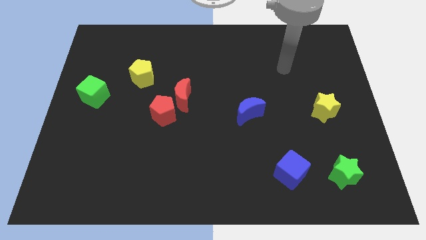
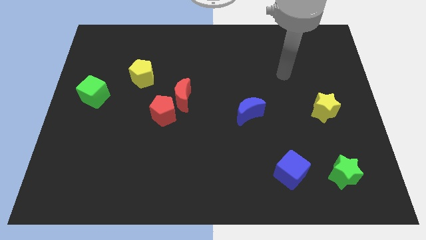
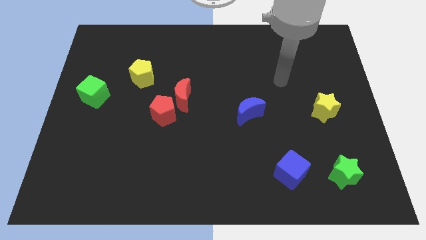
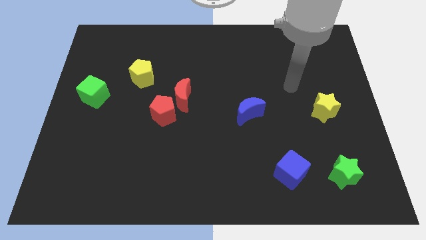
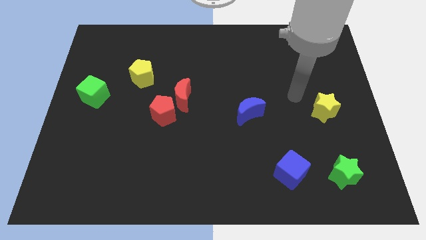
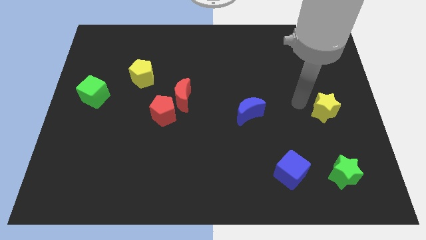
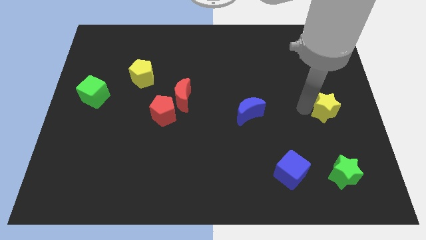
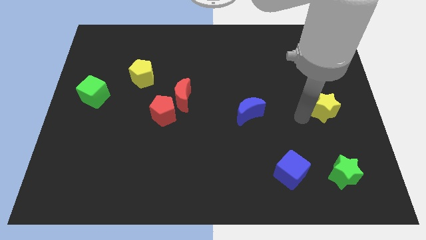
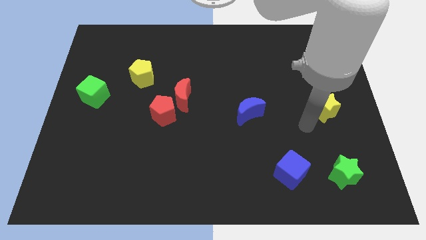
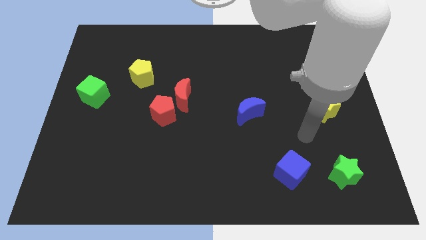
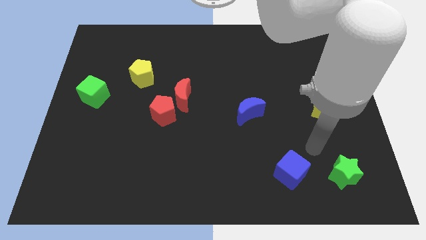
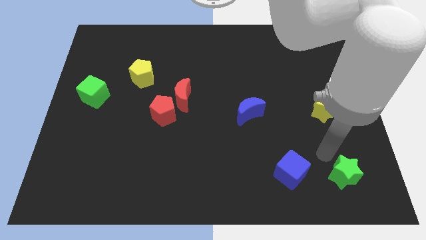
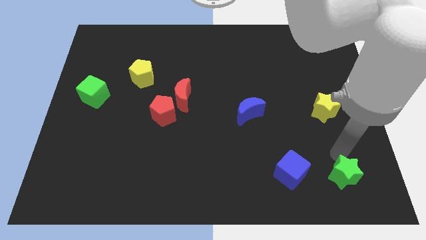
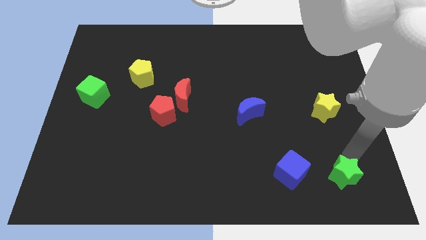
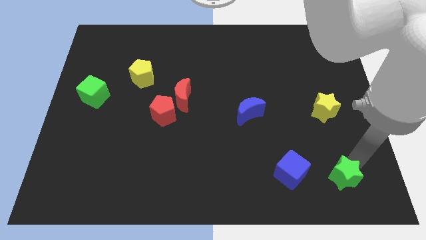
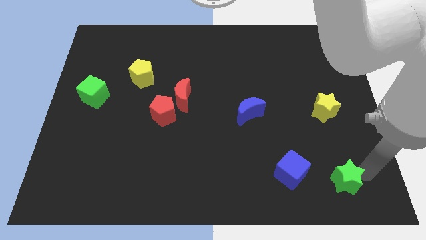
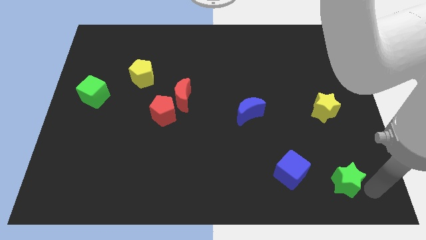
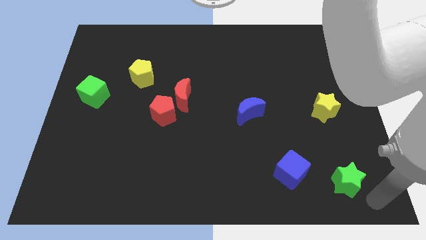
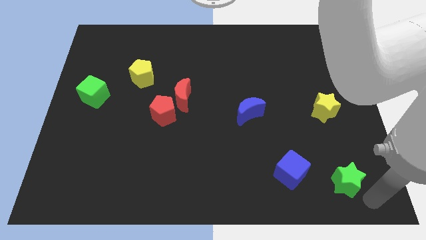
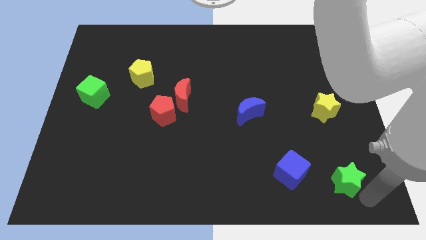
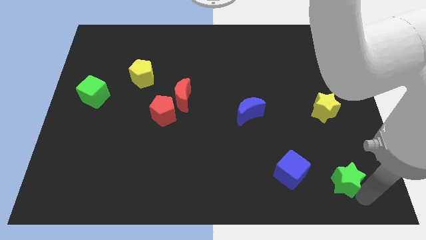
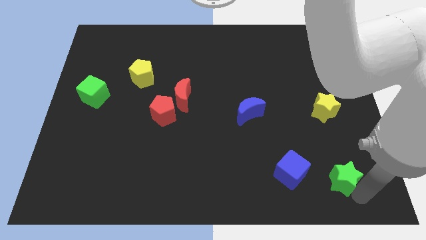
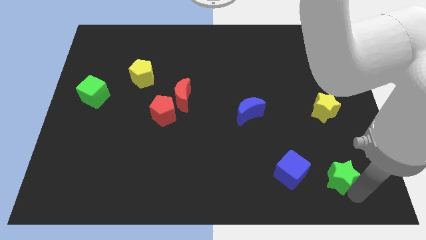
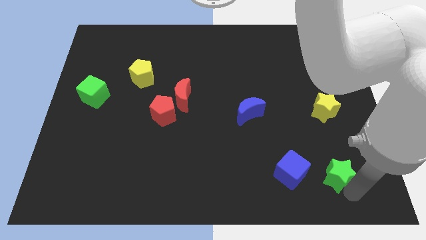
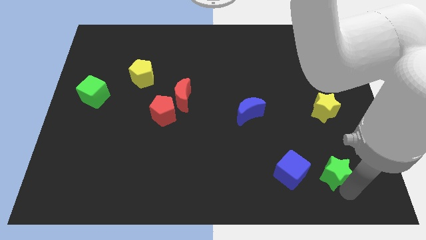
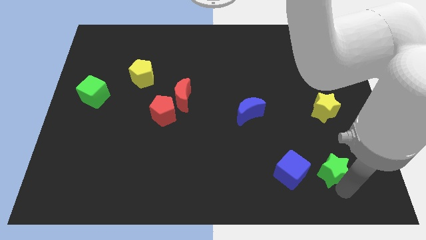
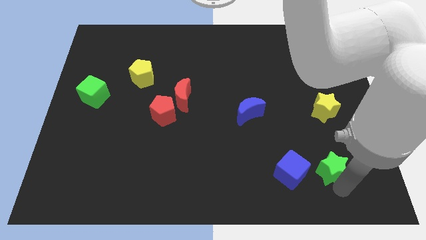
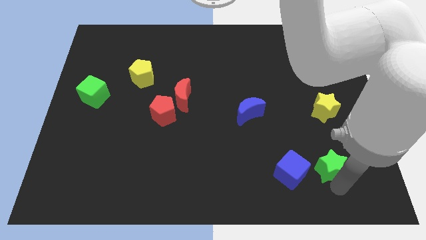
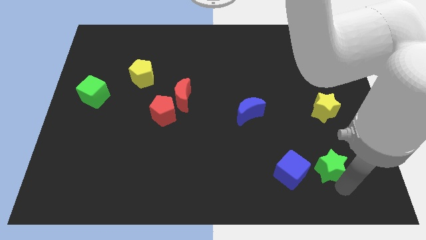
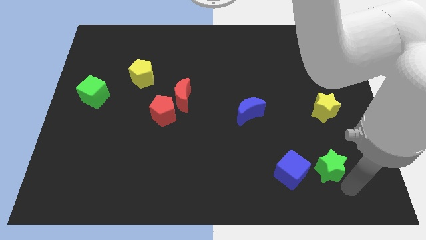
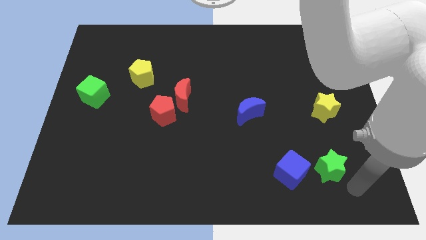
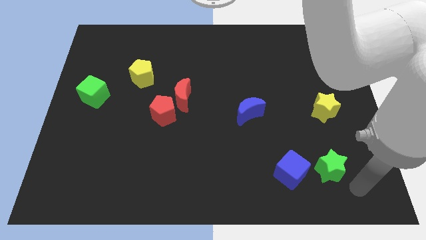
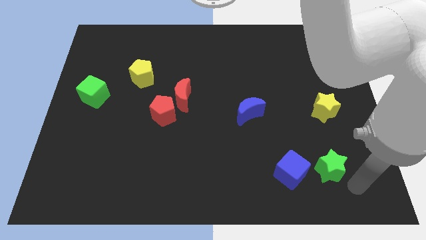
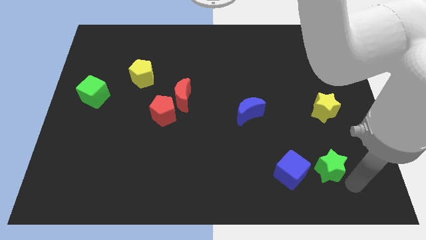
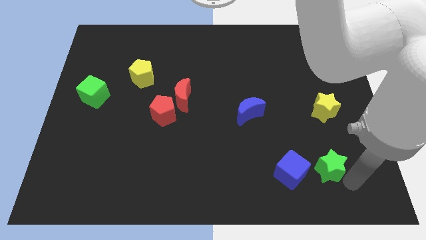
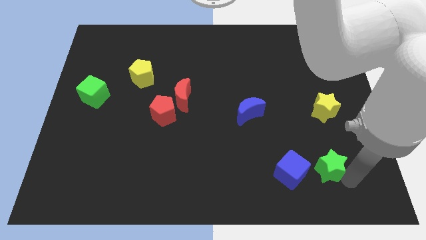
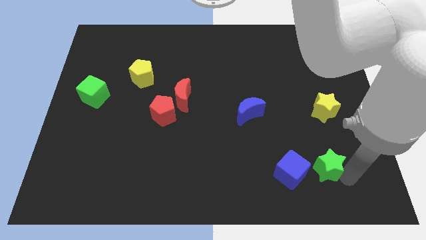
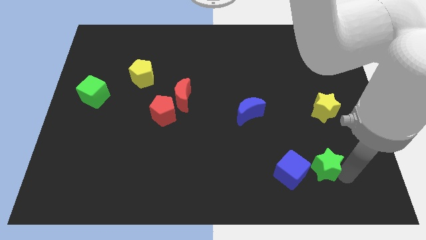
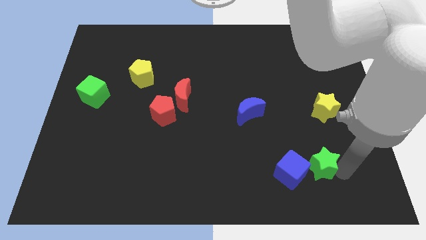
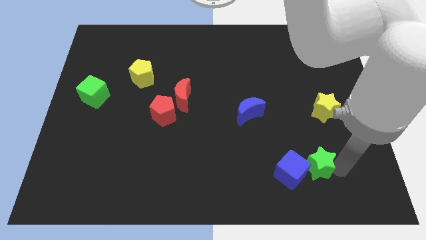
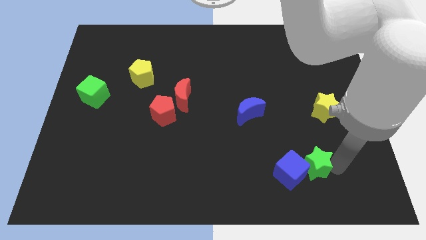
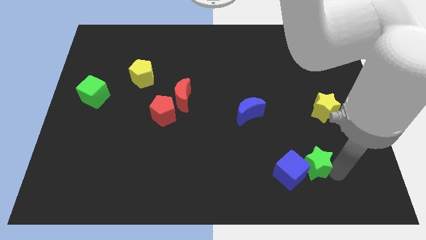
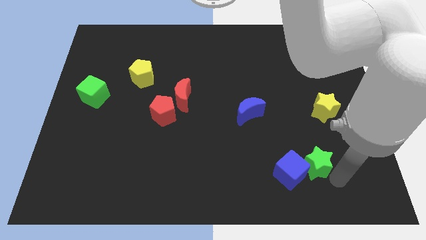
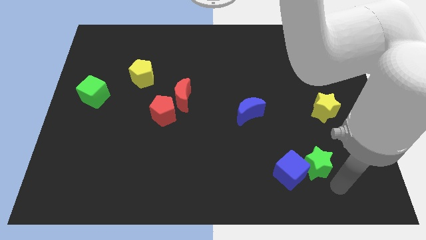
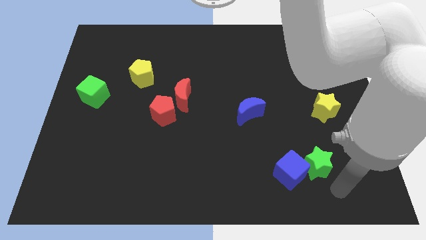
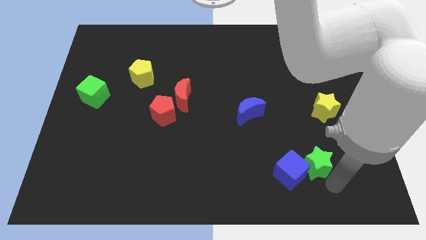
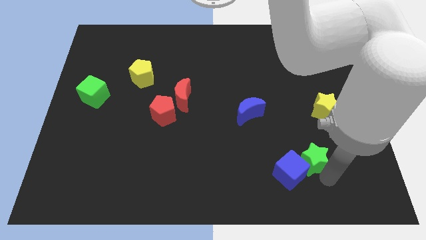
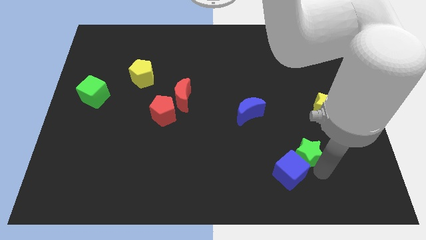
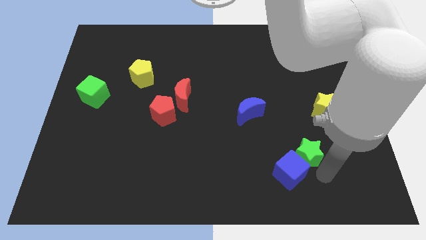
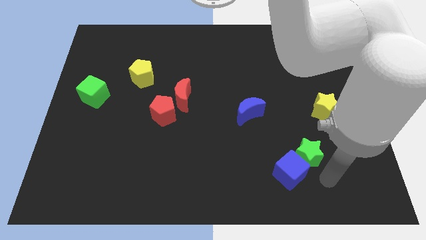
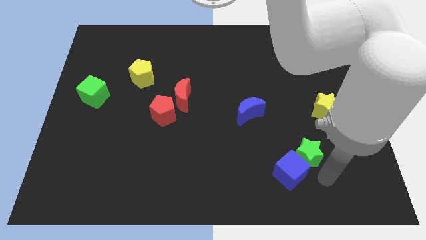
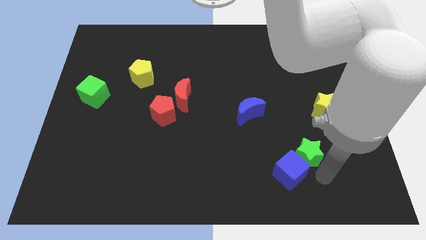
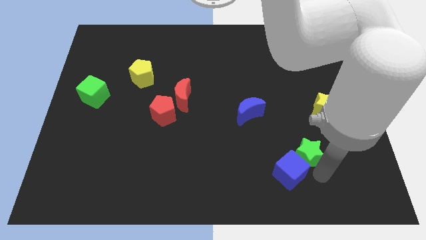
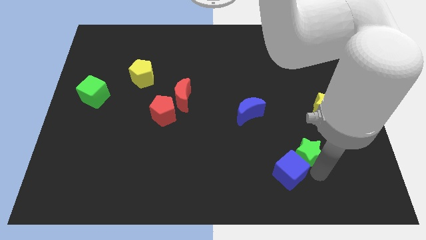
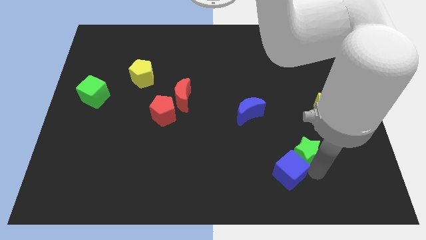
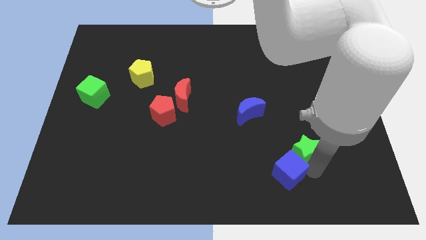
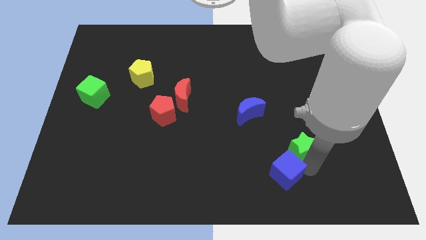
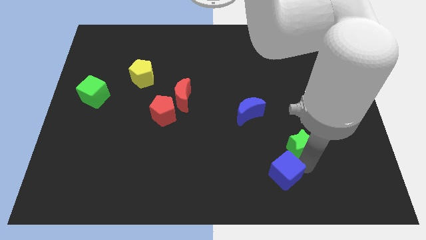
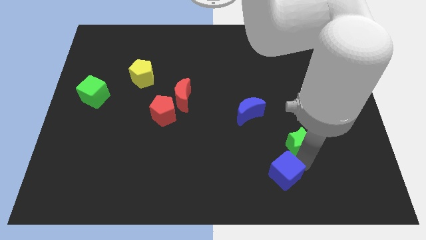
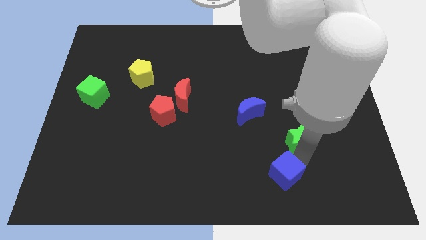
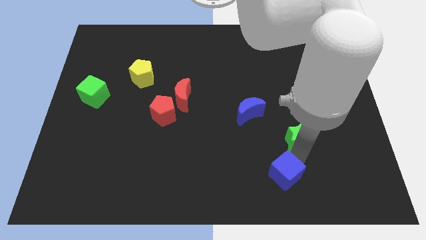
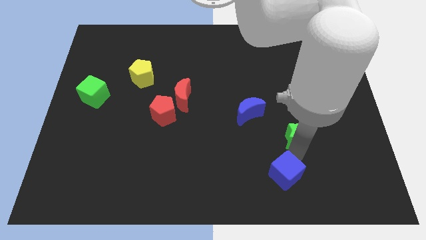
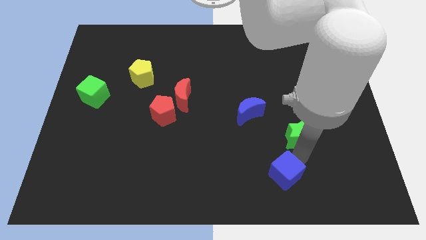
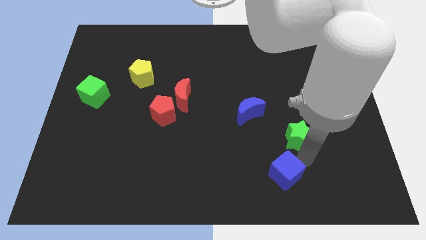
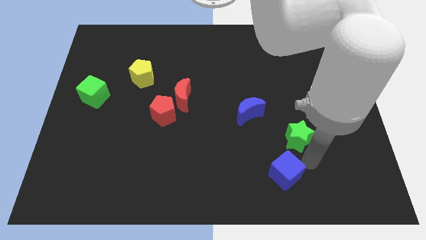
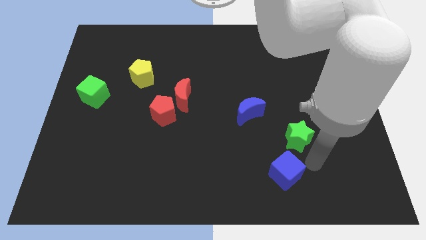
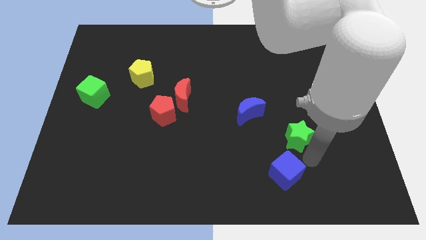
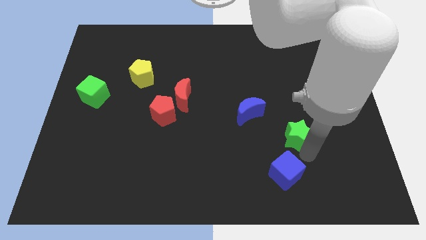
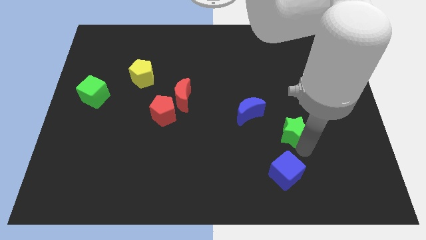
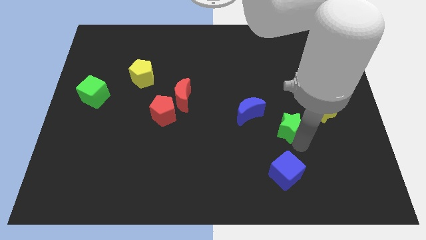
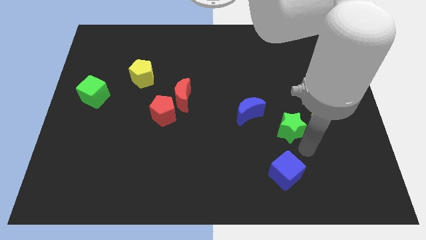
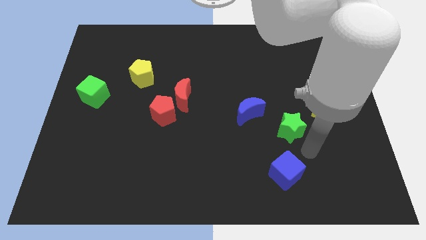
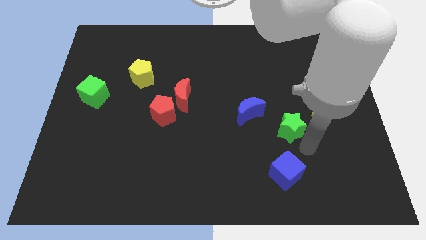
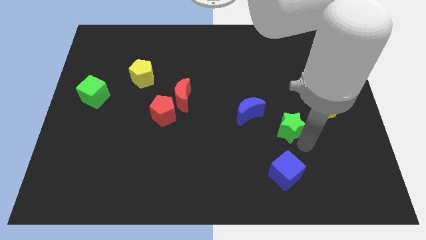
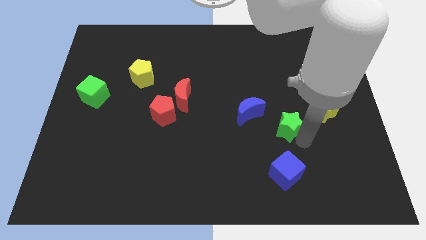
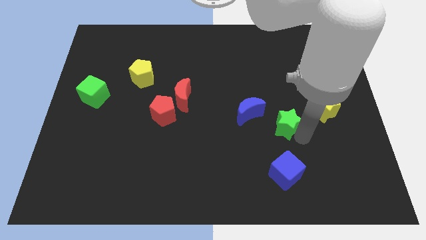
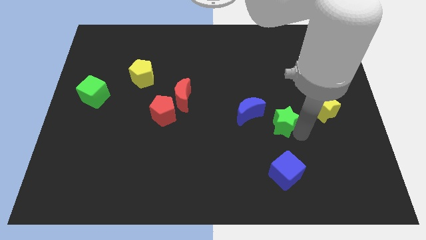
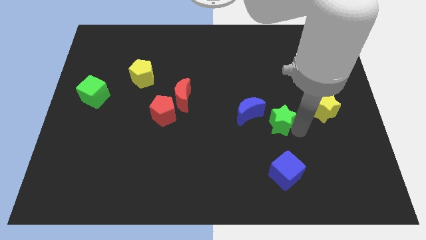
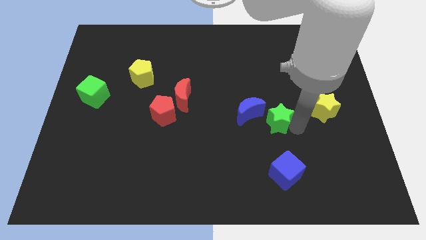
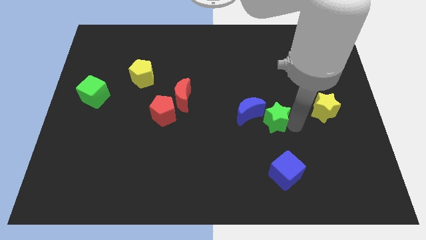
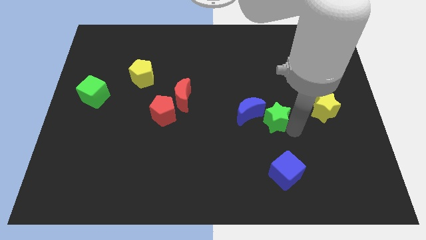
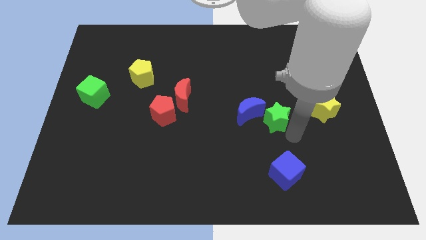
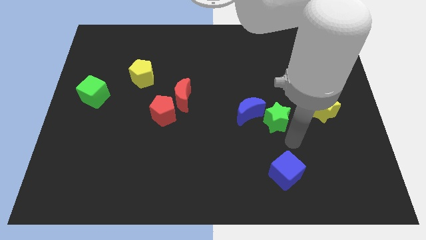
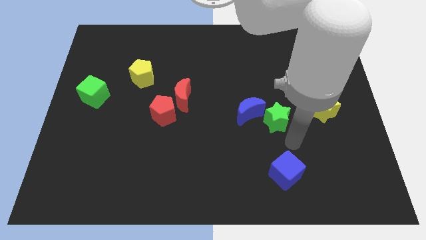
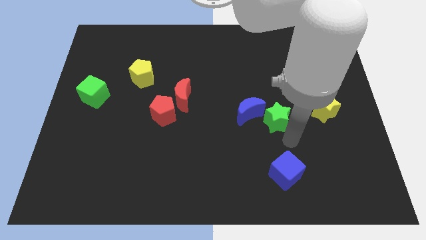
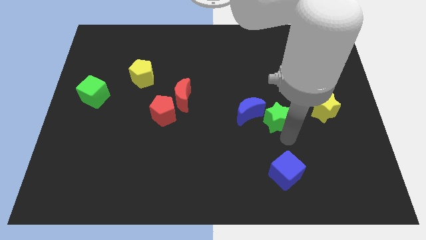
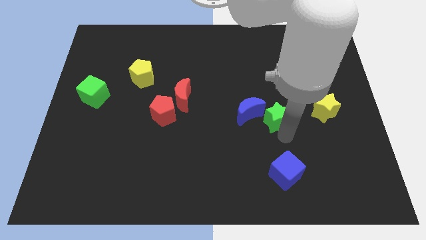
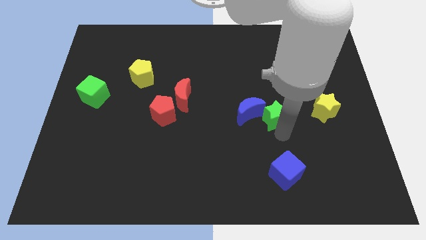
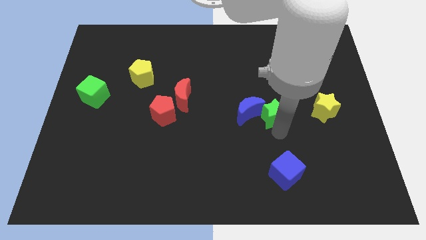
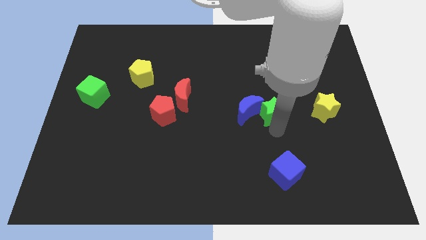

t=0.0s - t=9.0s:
slide the green star up and left
